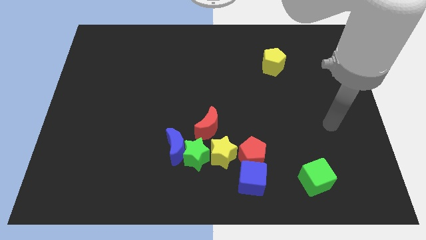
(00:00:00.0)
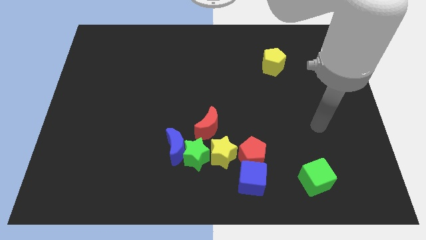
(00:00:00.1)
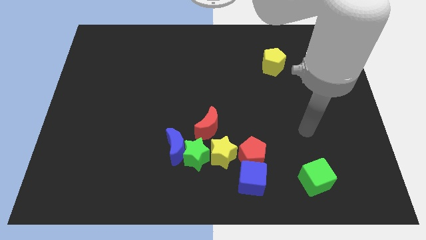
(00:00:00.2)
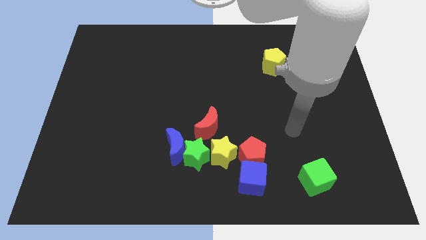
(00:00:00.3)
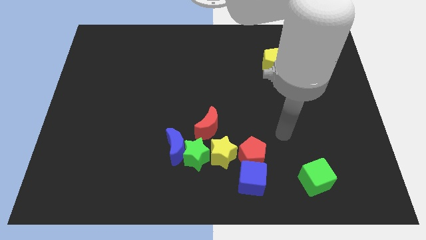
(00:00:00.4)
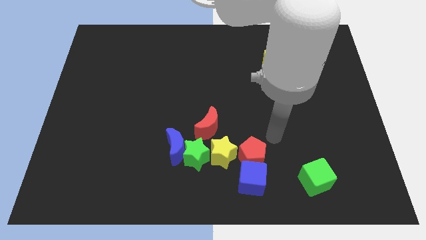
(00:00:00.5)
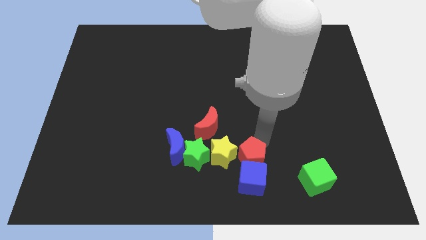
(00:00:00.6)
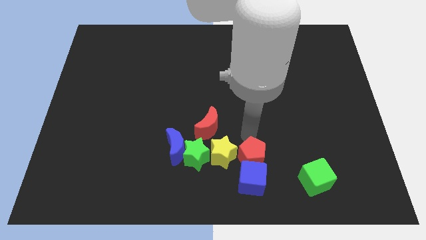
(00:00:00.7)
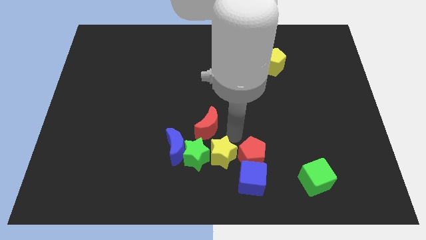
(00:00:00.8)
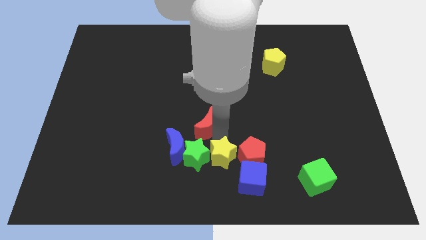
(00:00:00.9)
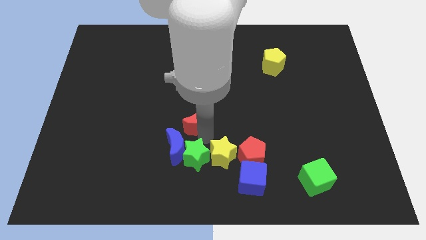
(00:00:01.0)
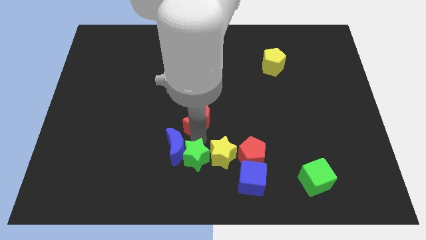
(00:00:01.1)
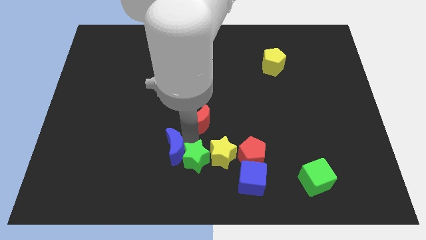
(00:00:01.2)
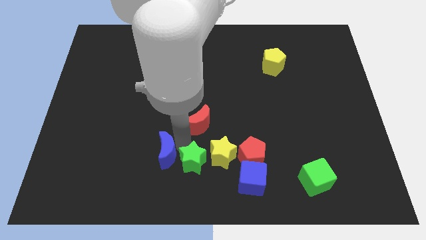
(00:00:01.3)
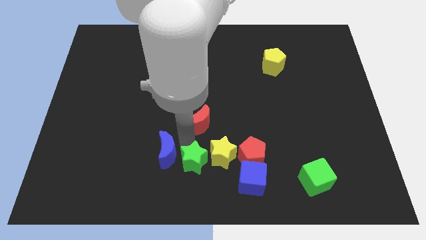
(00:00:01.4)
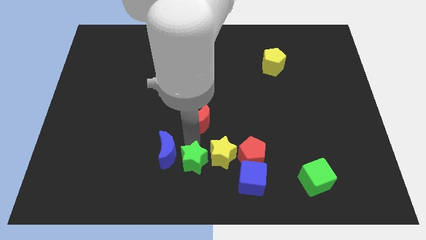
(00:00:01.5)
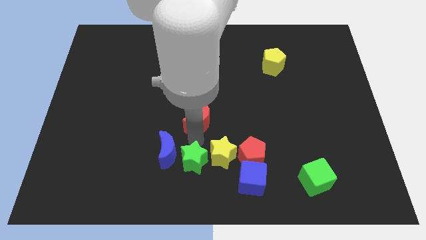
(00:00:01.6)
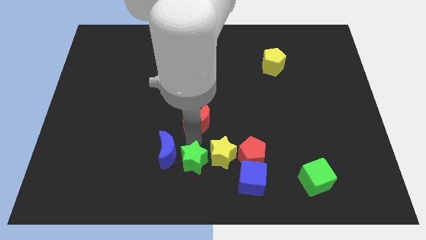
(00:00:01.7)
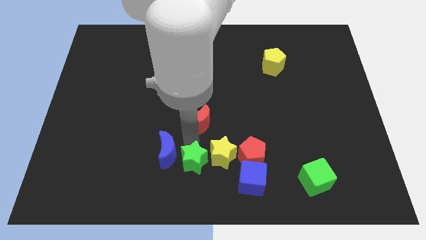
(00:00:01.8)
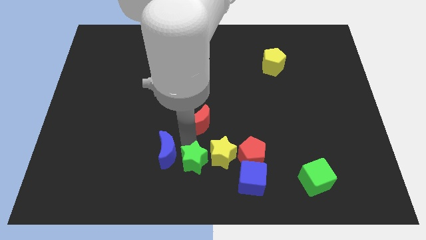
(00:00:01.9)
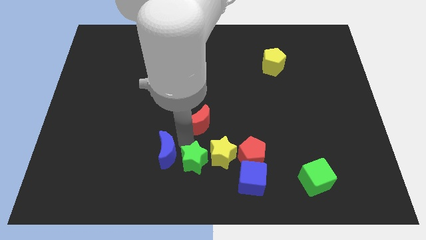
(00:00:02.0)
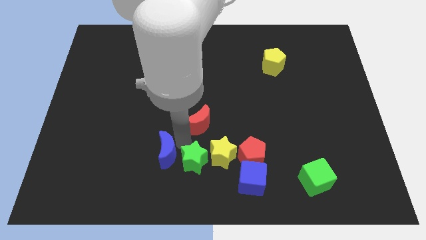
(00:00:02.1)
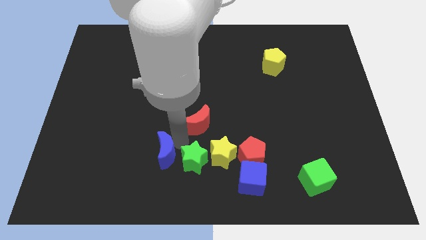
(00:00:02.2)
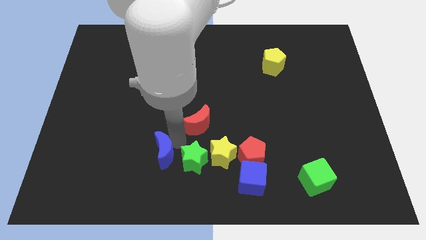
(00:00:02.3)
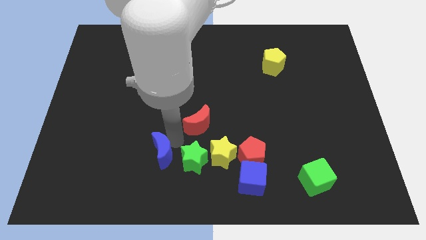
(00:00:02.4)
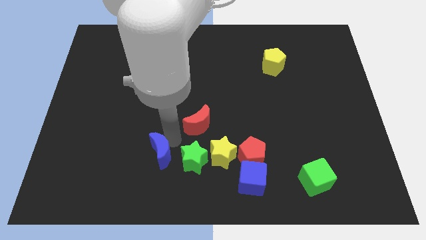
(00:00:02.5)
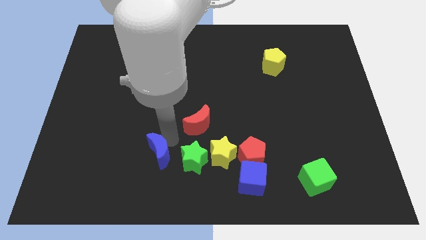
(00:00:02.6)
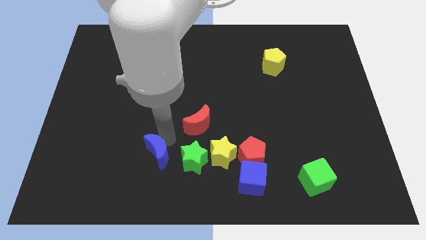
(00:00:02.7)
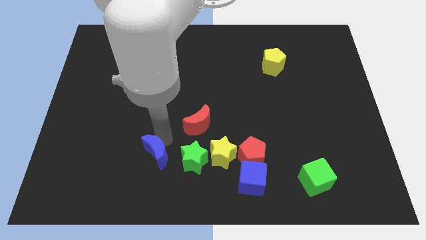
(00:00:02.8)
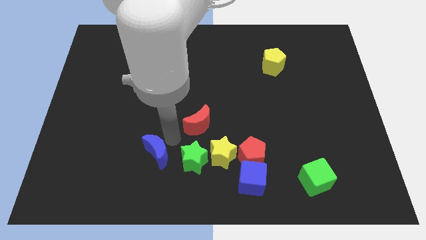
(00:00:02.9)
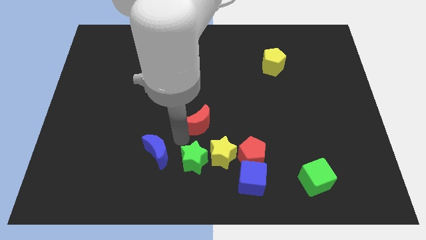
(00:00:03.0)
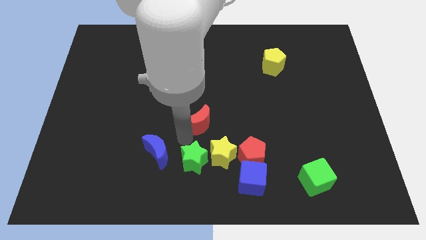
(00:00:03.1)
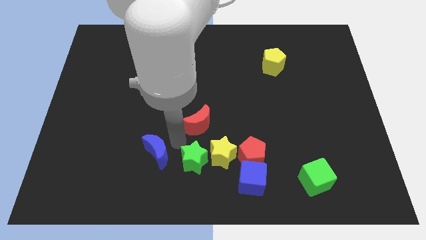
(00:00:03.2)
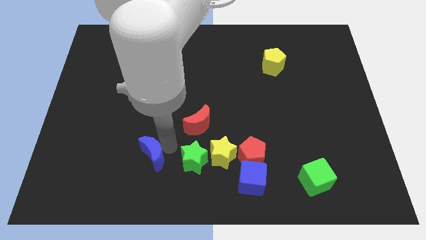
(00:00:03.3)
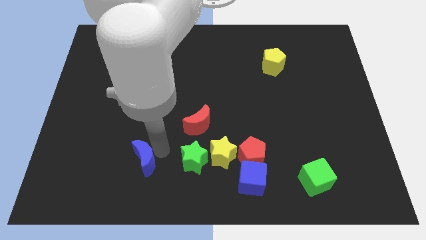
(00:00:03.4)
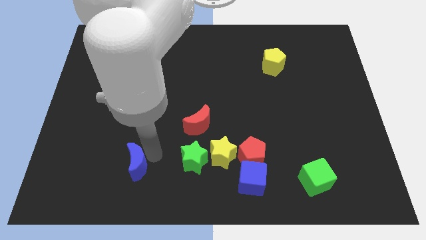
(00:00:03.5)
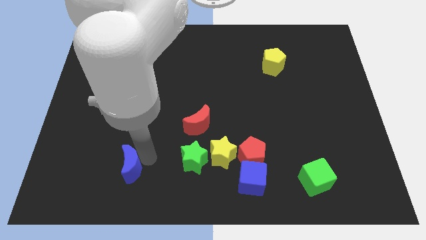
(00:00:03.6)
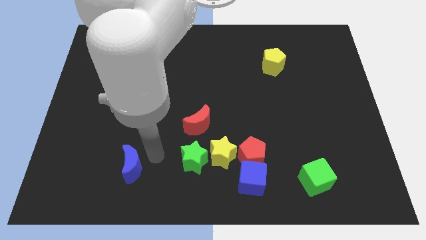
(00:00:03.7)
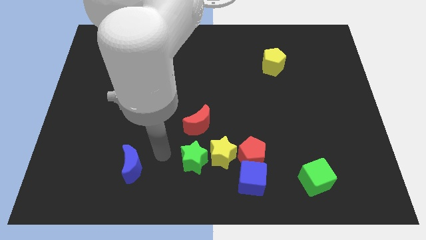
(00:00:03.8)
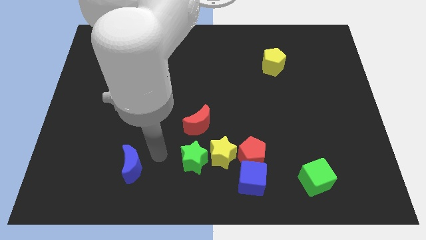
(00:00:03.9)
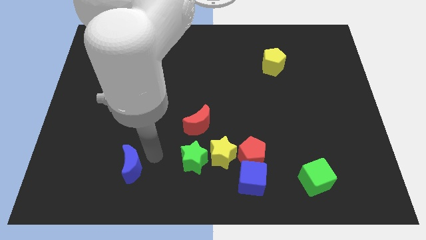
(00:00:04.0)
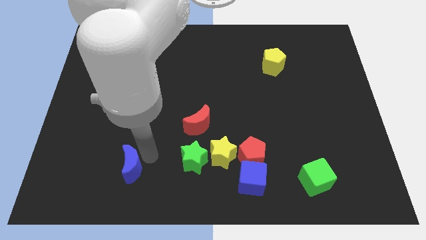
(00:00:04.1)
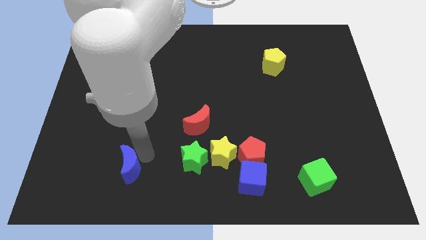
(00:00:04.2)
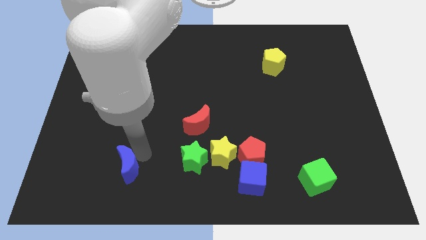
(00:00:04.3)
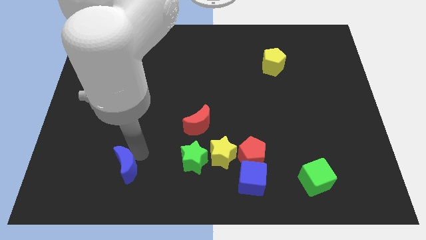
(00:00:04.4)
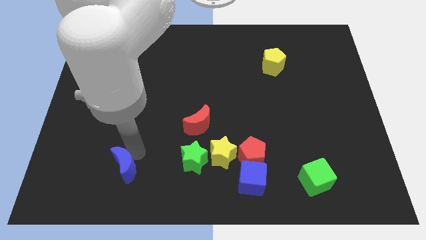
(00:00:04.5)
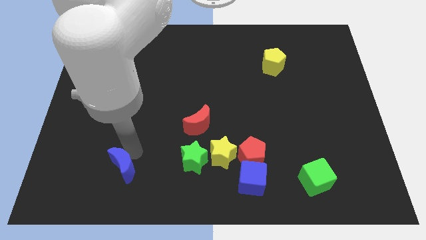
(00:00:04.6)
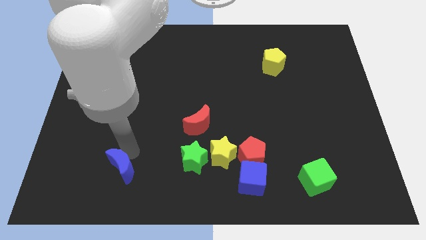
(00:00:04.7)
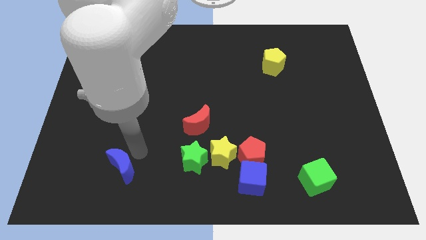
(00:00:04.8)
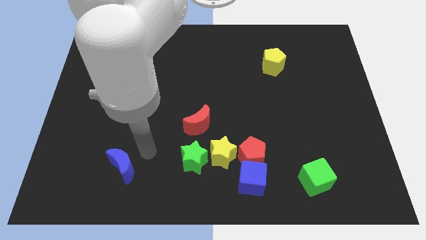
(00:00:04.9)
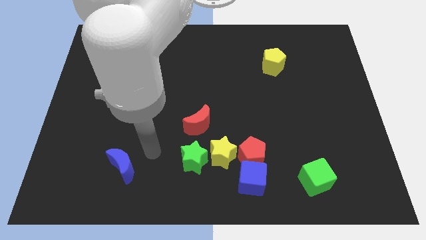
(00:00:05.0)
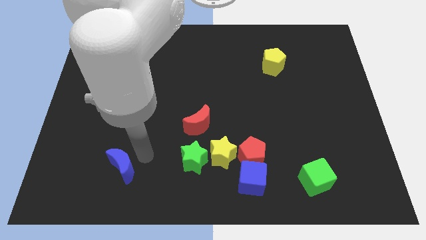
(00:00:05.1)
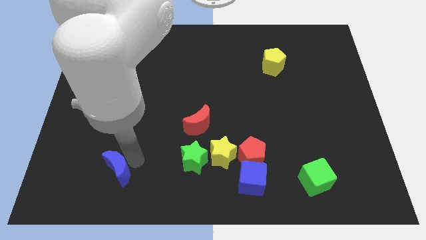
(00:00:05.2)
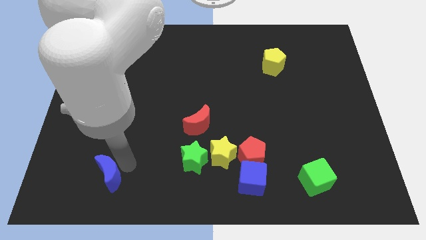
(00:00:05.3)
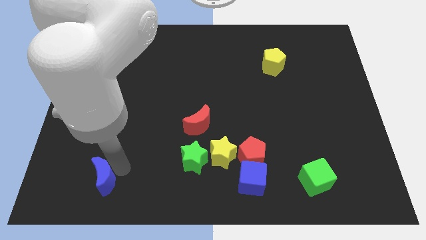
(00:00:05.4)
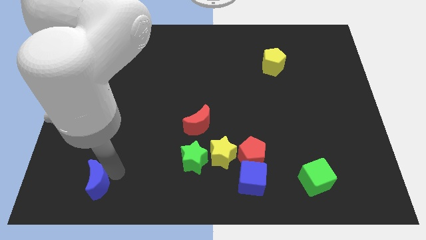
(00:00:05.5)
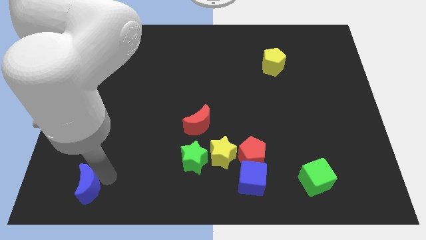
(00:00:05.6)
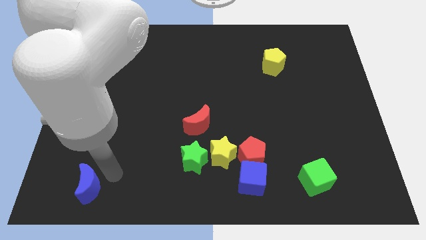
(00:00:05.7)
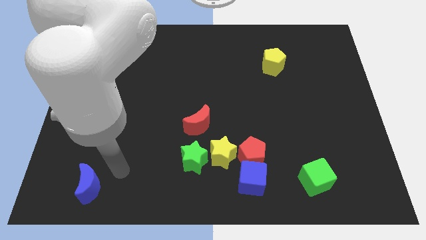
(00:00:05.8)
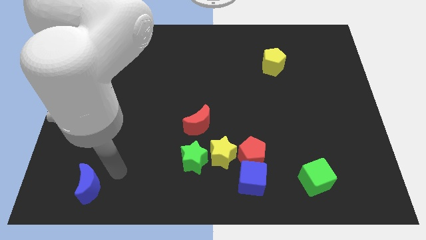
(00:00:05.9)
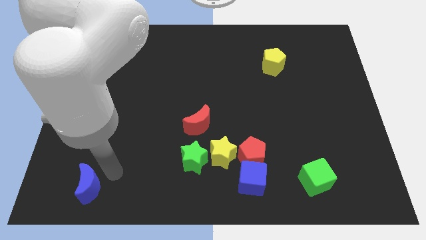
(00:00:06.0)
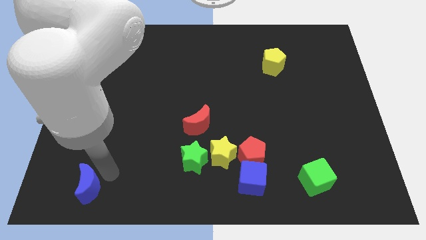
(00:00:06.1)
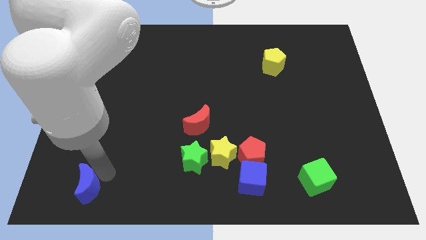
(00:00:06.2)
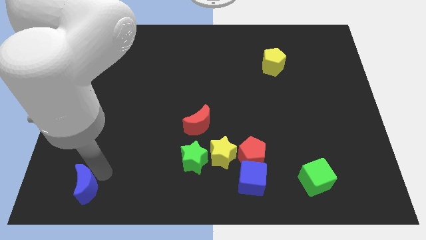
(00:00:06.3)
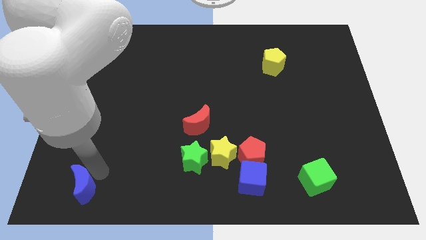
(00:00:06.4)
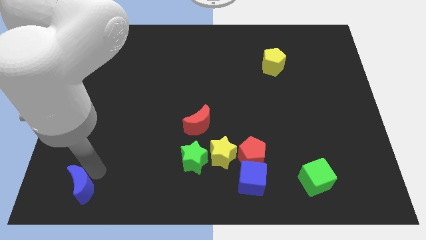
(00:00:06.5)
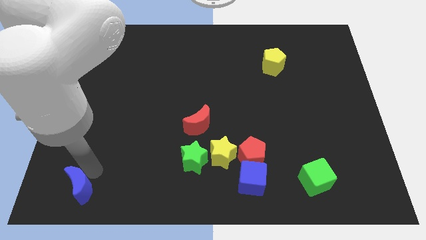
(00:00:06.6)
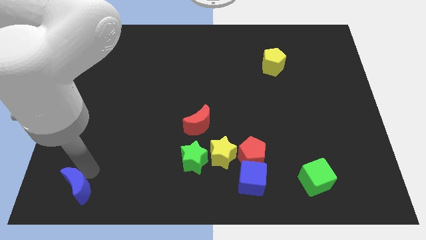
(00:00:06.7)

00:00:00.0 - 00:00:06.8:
push the blue moon to the lower left corner
